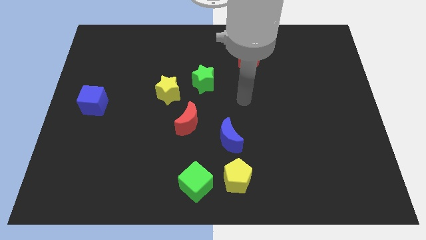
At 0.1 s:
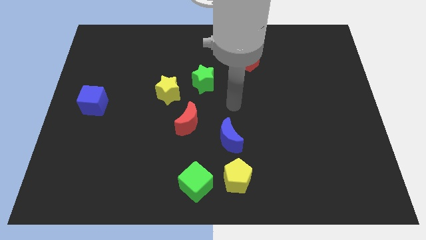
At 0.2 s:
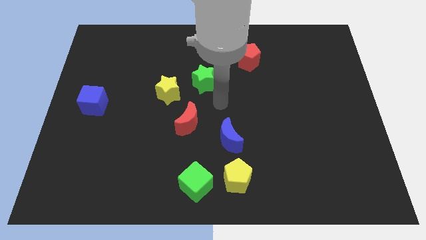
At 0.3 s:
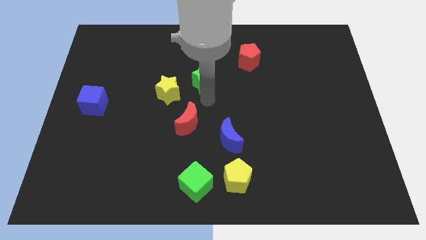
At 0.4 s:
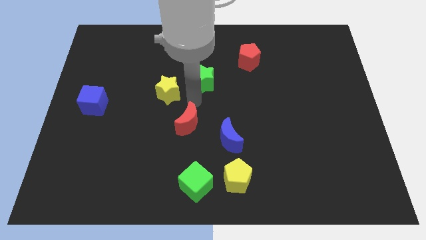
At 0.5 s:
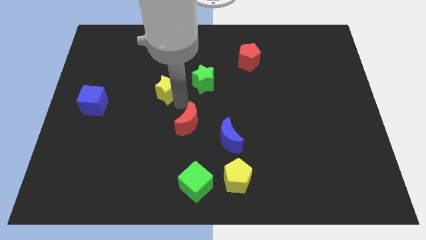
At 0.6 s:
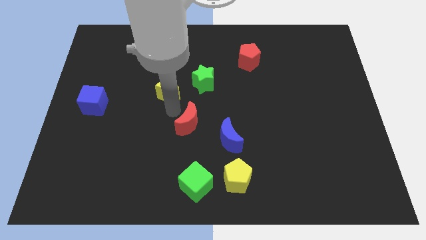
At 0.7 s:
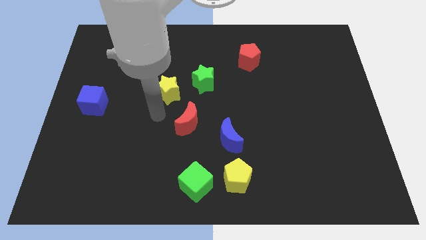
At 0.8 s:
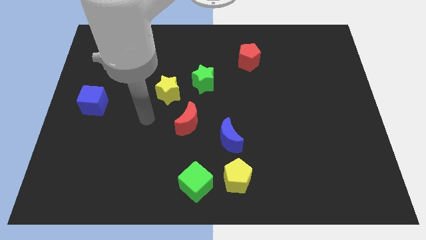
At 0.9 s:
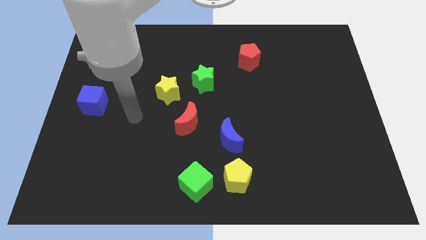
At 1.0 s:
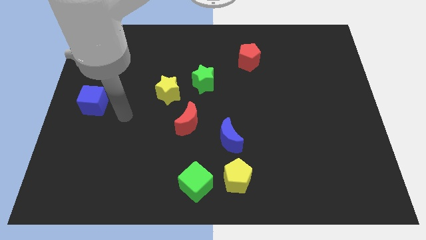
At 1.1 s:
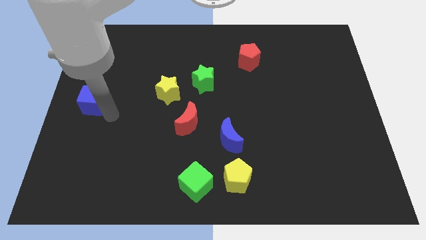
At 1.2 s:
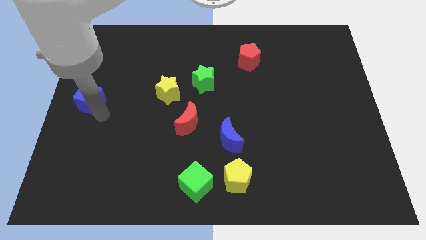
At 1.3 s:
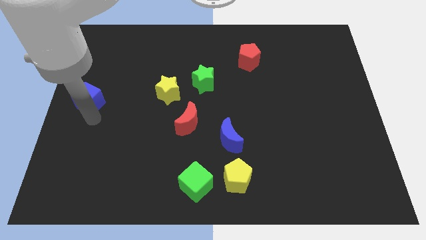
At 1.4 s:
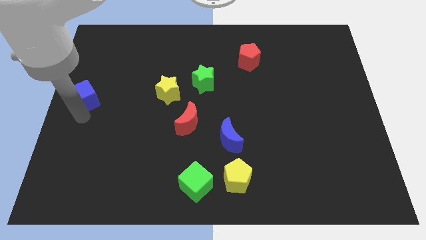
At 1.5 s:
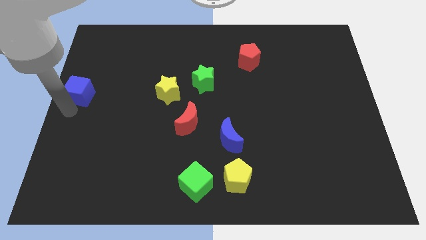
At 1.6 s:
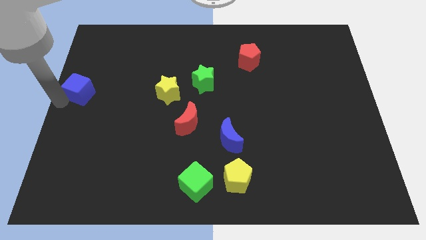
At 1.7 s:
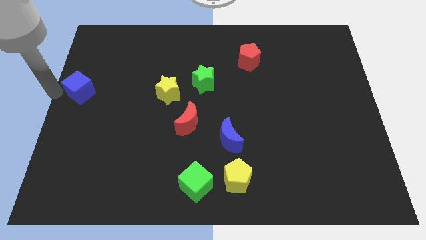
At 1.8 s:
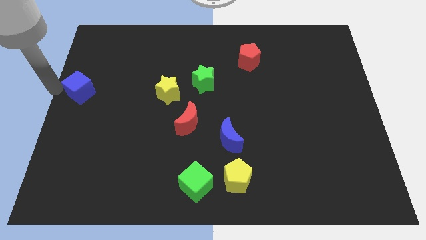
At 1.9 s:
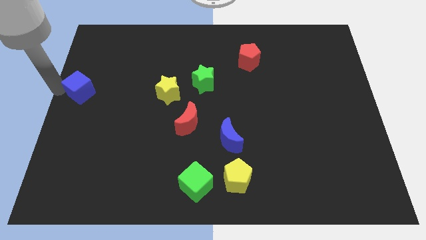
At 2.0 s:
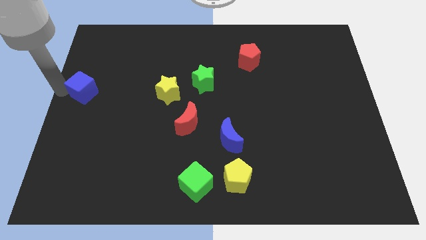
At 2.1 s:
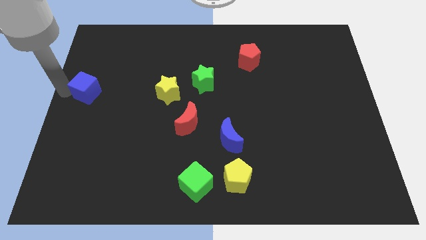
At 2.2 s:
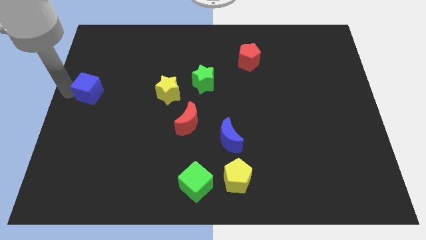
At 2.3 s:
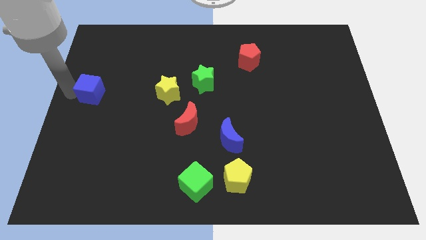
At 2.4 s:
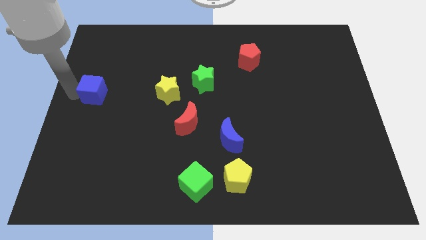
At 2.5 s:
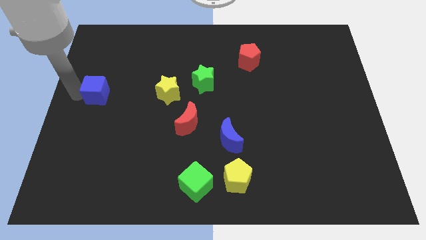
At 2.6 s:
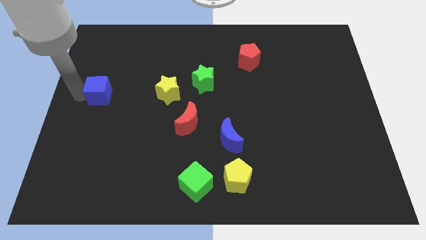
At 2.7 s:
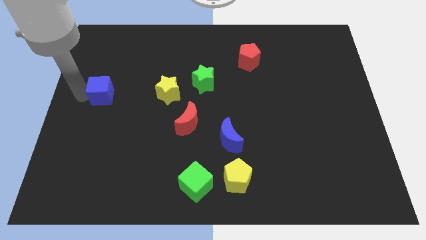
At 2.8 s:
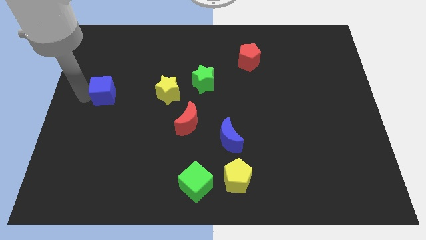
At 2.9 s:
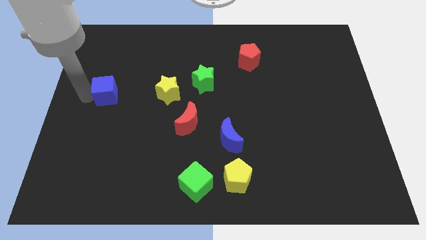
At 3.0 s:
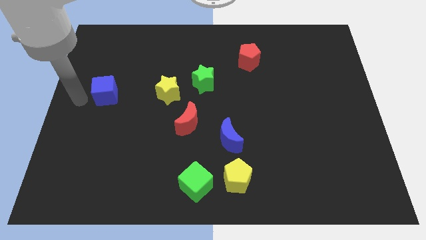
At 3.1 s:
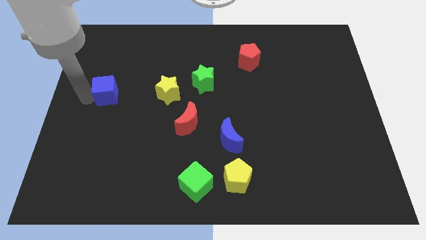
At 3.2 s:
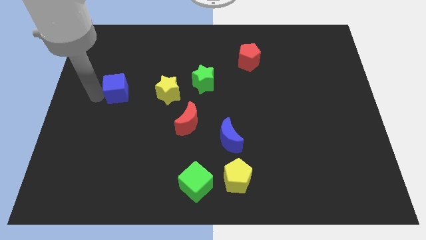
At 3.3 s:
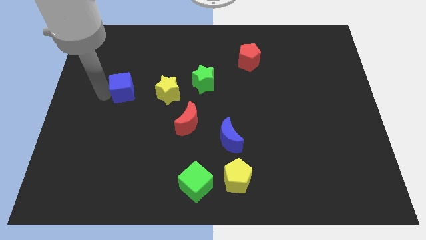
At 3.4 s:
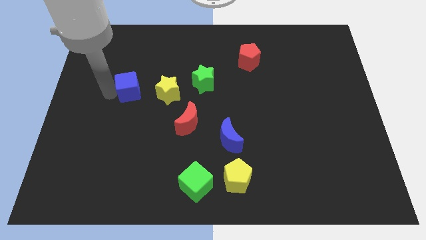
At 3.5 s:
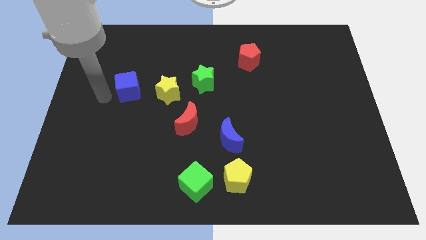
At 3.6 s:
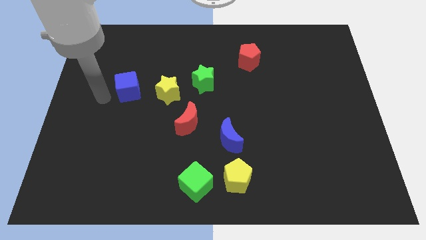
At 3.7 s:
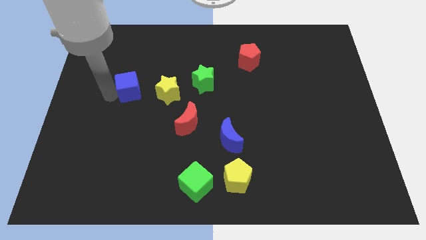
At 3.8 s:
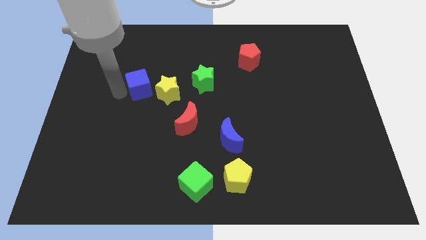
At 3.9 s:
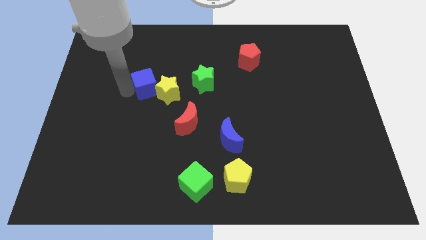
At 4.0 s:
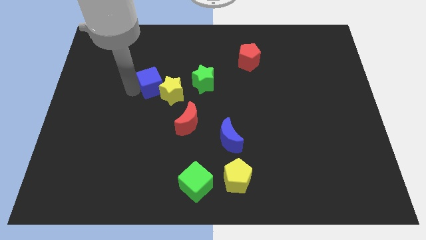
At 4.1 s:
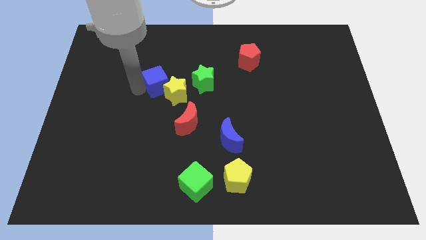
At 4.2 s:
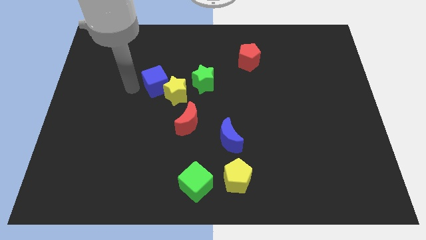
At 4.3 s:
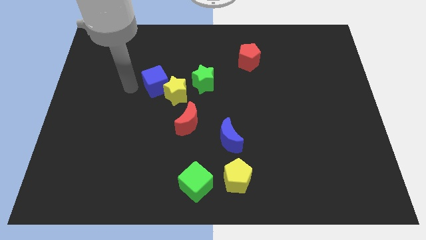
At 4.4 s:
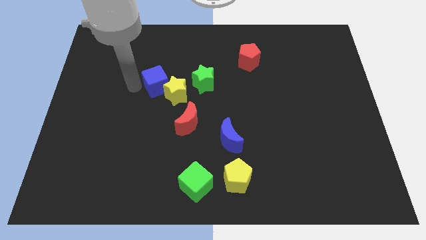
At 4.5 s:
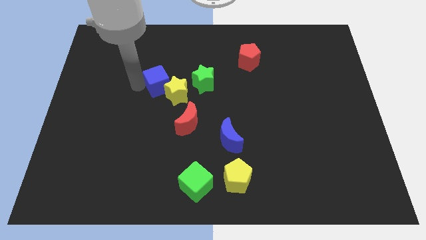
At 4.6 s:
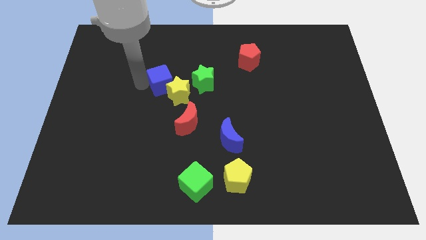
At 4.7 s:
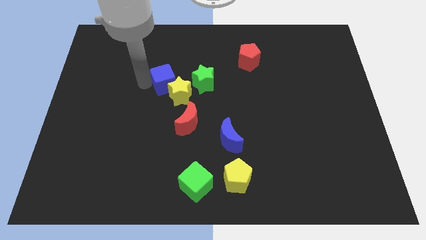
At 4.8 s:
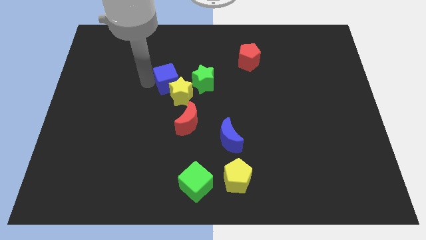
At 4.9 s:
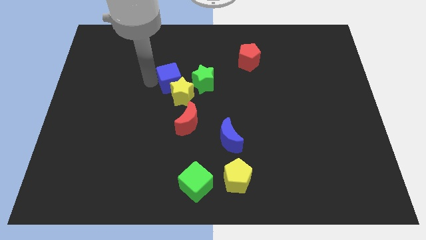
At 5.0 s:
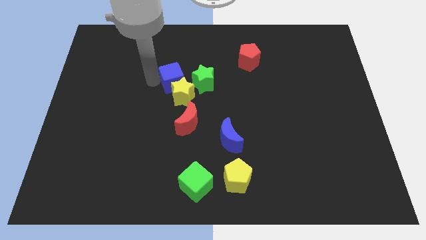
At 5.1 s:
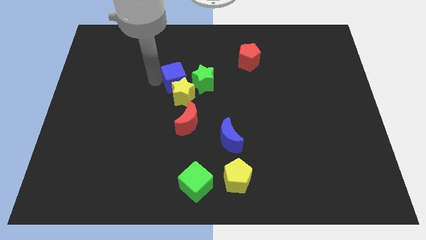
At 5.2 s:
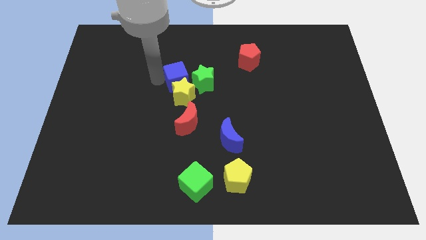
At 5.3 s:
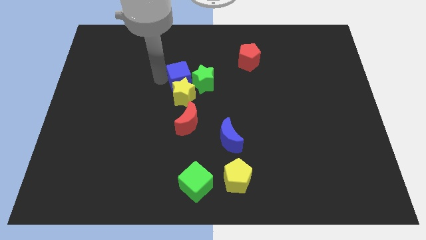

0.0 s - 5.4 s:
move the blue cube to the green star

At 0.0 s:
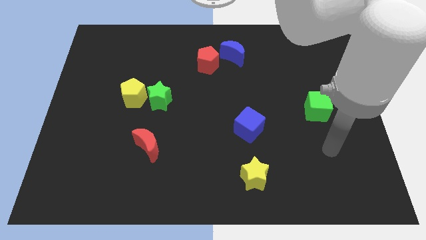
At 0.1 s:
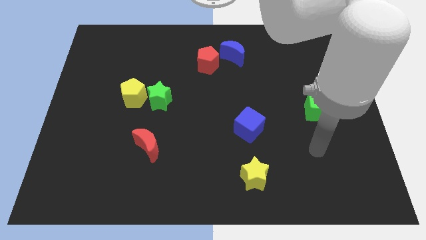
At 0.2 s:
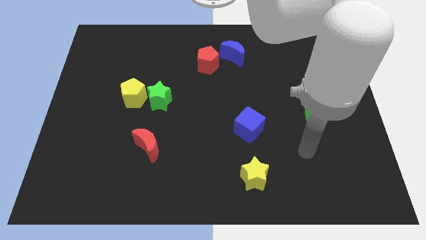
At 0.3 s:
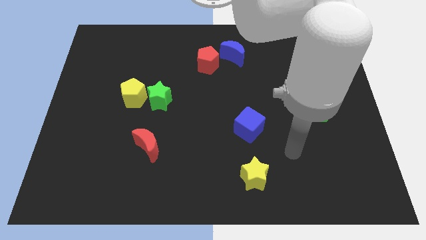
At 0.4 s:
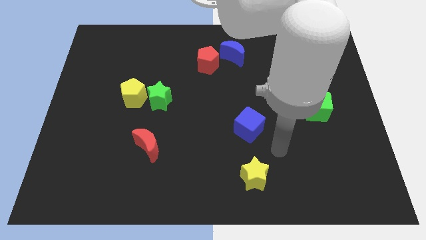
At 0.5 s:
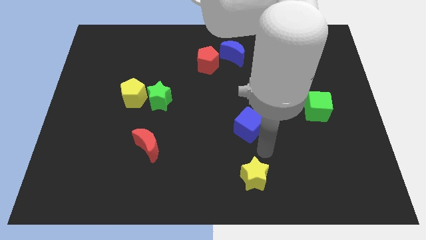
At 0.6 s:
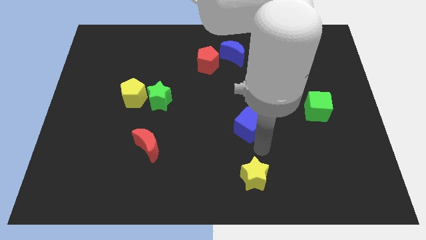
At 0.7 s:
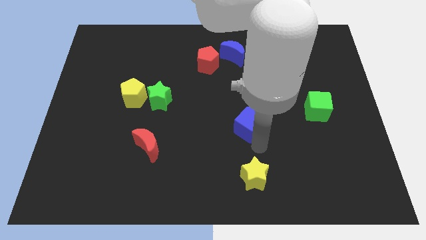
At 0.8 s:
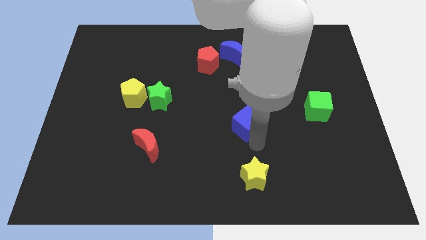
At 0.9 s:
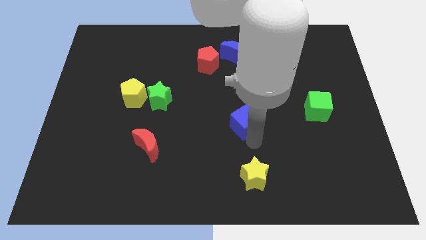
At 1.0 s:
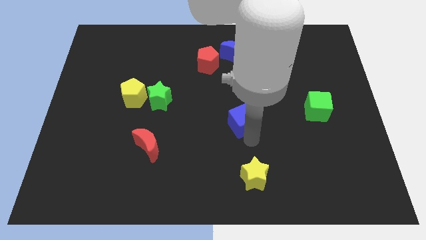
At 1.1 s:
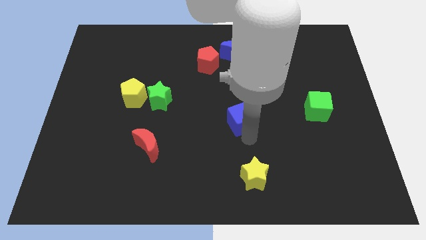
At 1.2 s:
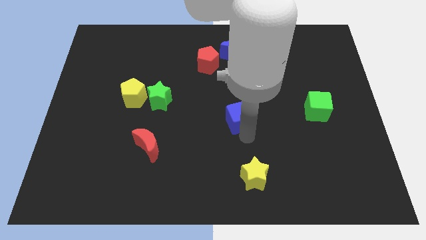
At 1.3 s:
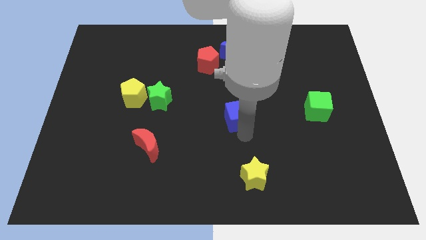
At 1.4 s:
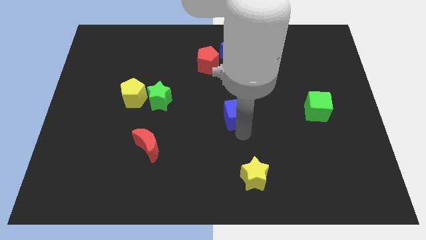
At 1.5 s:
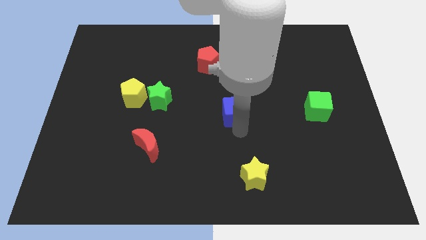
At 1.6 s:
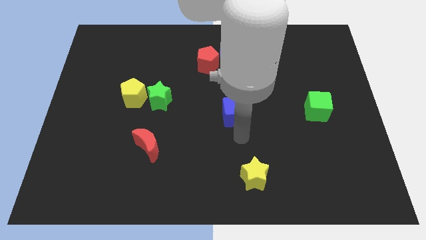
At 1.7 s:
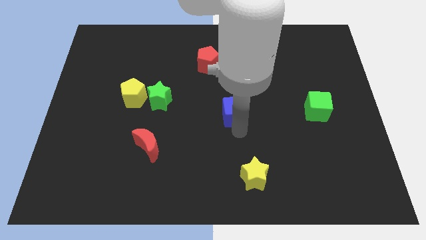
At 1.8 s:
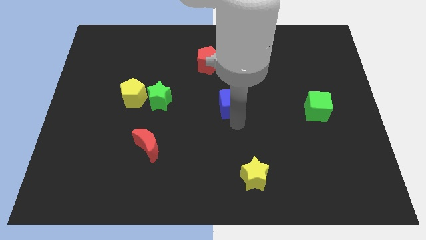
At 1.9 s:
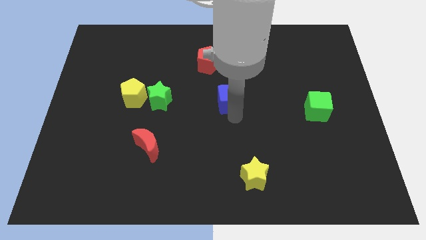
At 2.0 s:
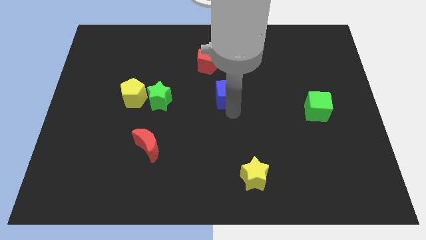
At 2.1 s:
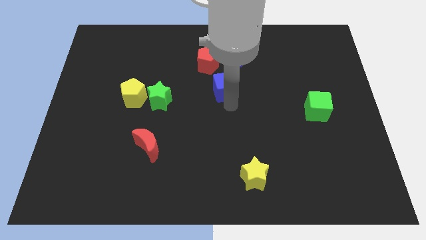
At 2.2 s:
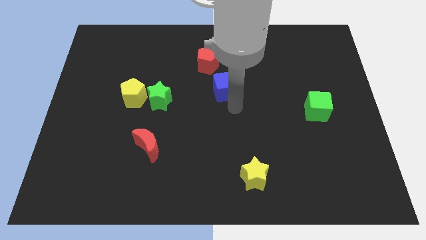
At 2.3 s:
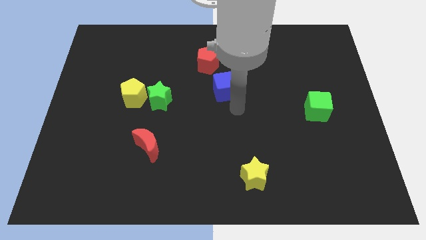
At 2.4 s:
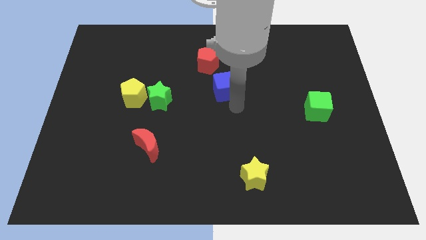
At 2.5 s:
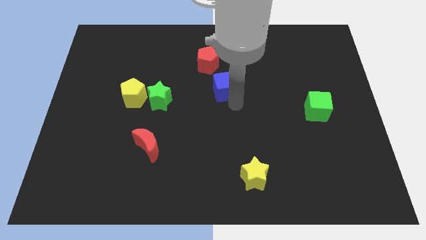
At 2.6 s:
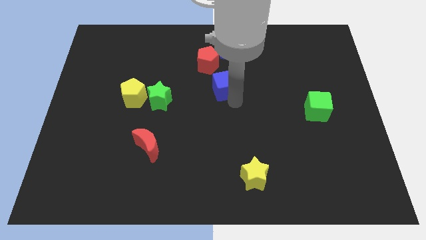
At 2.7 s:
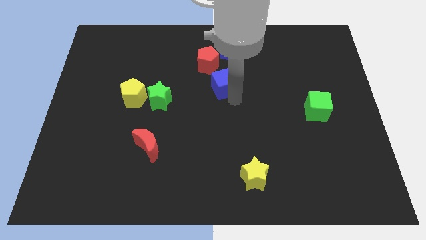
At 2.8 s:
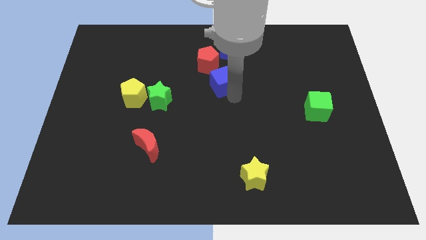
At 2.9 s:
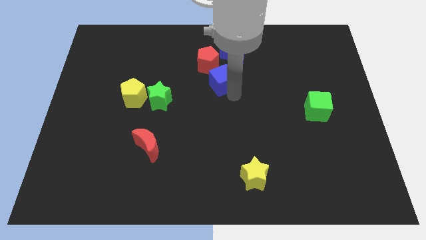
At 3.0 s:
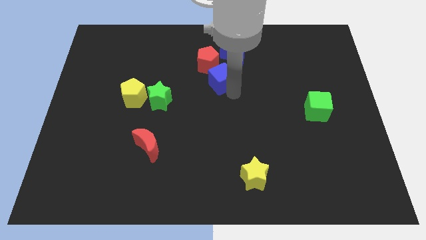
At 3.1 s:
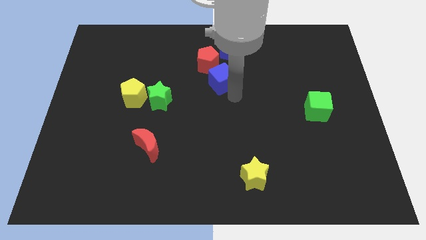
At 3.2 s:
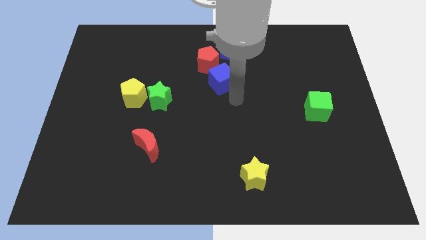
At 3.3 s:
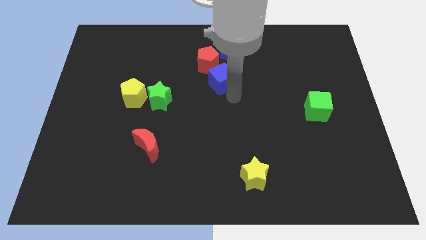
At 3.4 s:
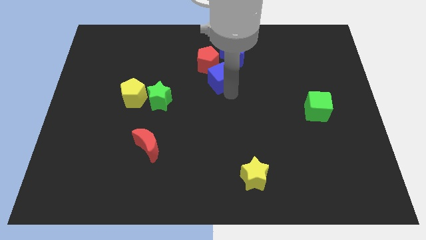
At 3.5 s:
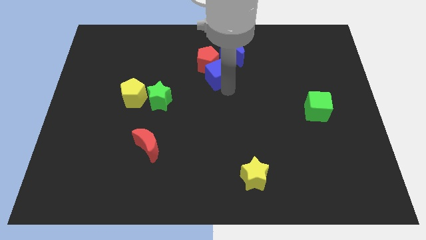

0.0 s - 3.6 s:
push the blue cube next to the red pentagon
